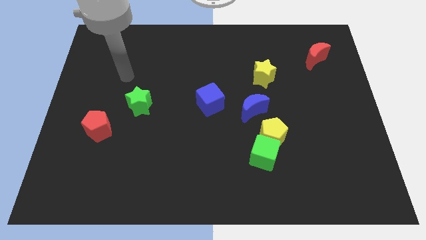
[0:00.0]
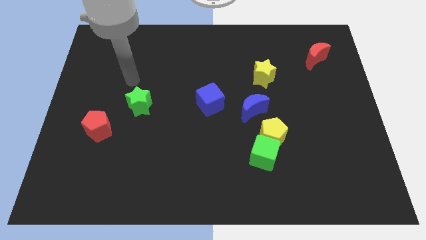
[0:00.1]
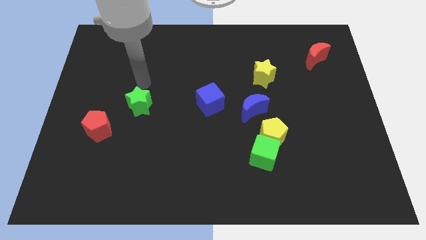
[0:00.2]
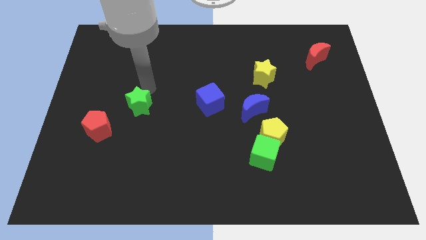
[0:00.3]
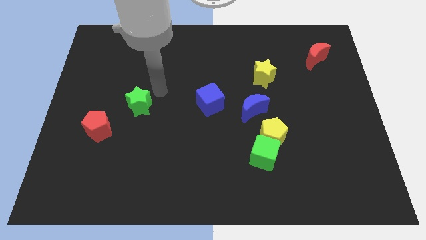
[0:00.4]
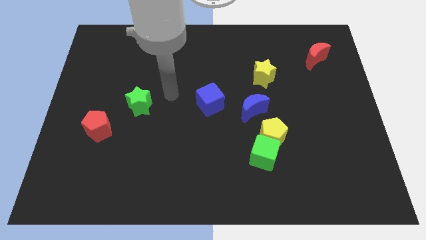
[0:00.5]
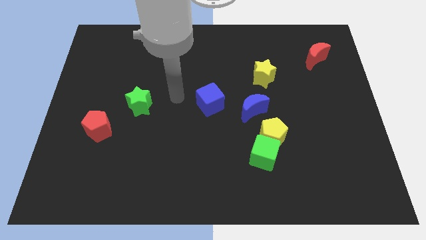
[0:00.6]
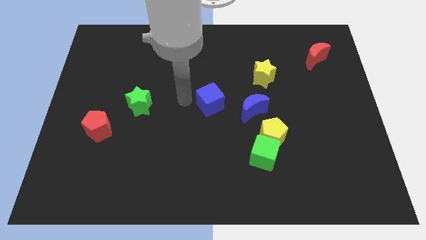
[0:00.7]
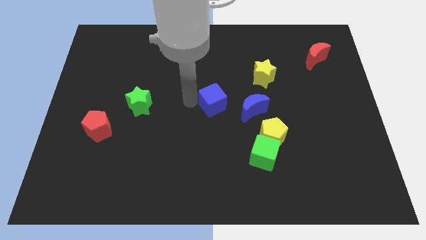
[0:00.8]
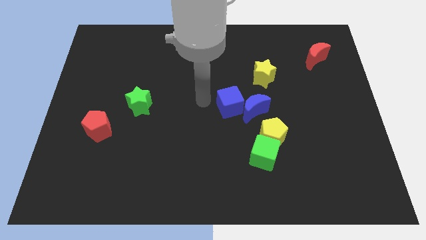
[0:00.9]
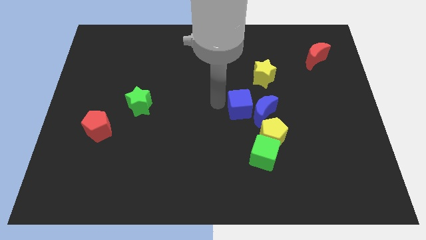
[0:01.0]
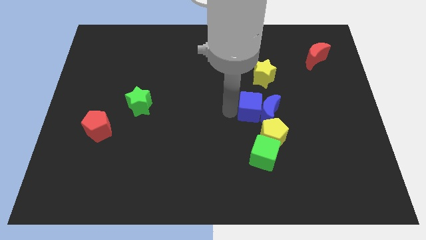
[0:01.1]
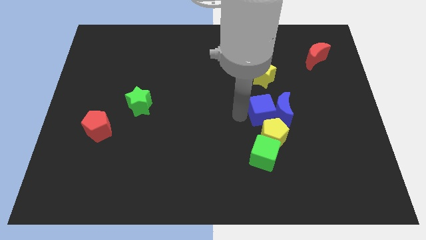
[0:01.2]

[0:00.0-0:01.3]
move the blue moon slightly right

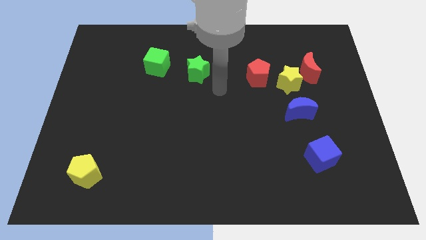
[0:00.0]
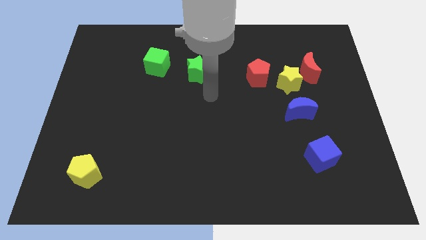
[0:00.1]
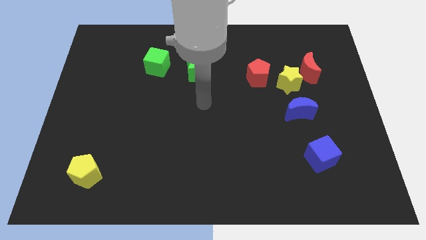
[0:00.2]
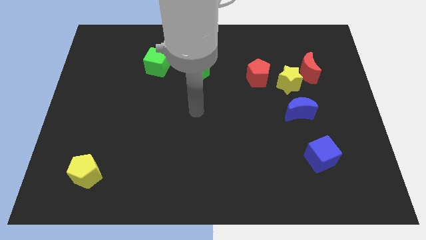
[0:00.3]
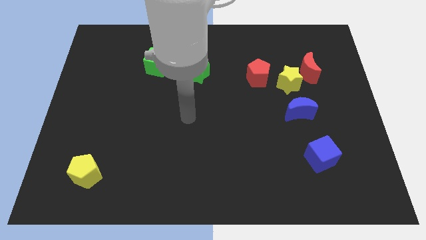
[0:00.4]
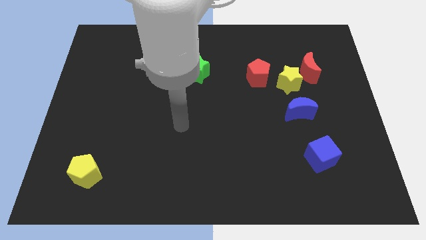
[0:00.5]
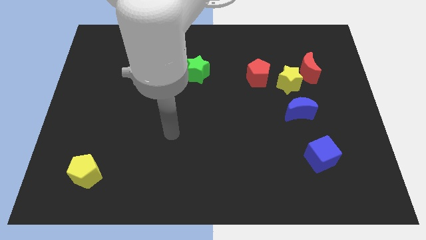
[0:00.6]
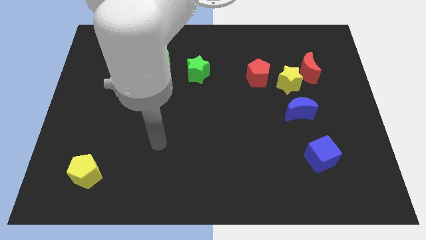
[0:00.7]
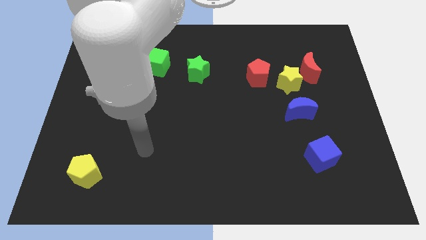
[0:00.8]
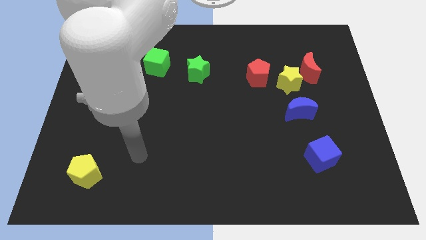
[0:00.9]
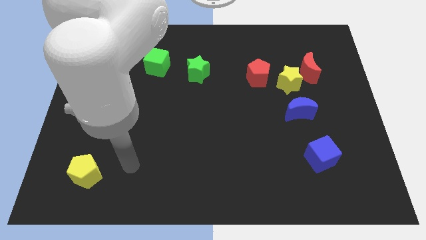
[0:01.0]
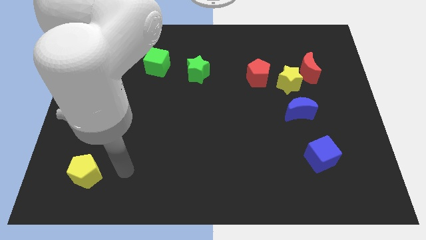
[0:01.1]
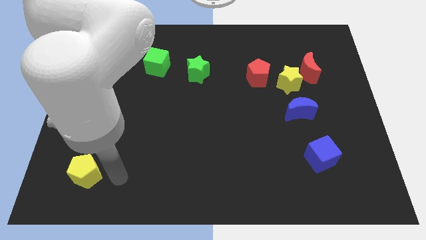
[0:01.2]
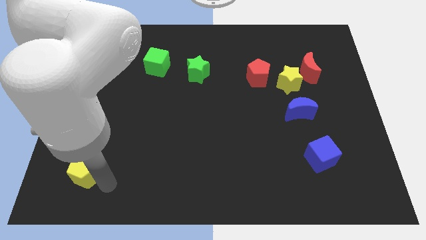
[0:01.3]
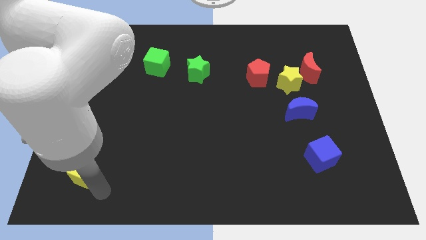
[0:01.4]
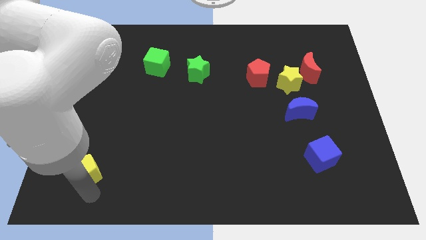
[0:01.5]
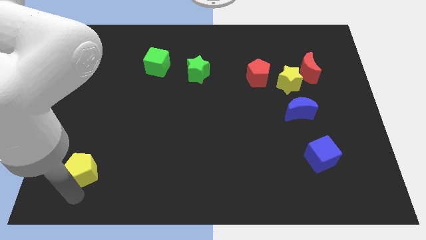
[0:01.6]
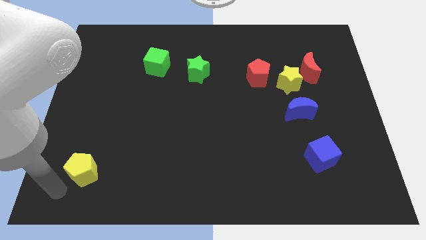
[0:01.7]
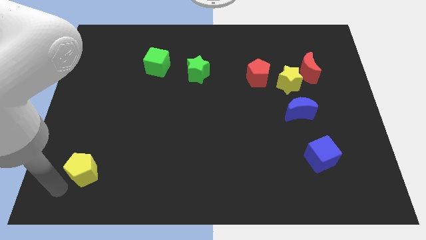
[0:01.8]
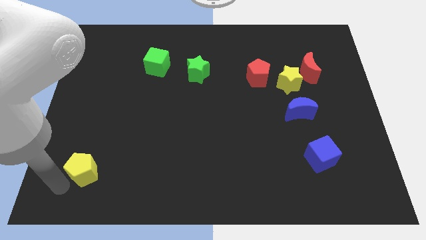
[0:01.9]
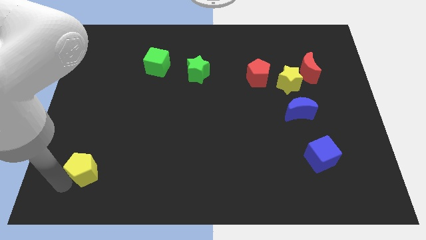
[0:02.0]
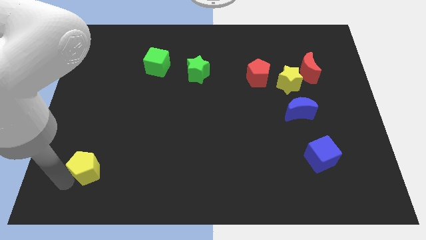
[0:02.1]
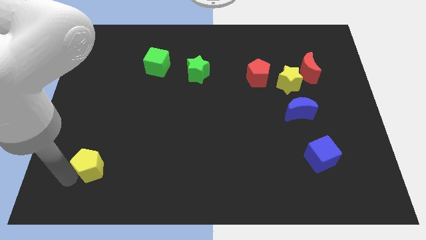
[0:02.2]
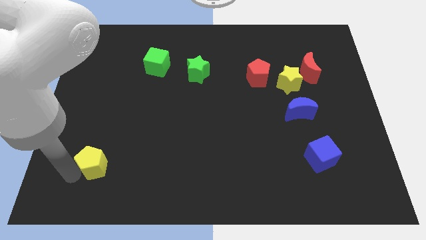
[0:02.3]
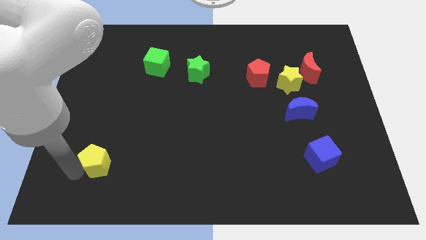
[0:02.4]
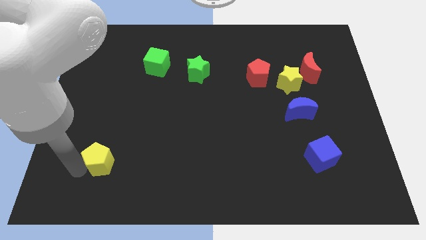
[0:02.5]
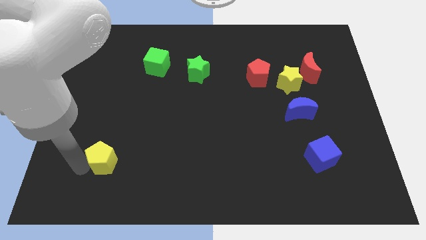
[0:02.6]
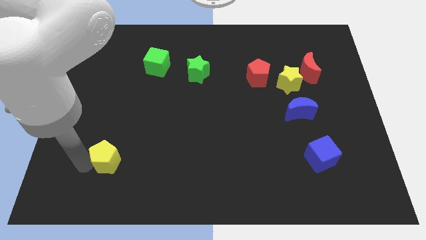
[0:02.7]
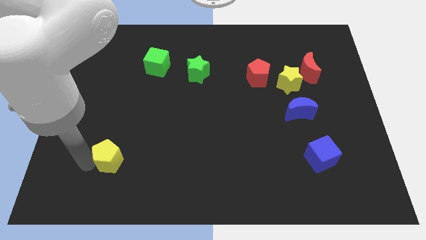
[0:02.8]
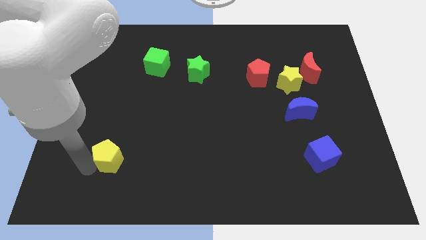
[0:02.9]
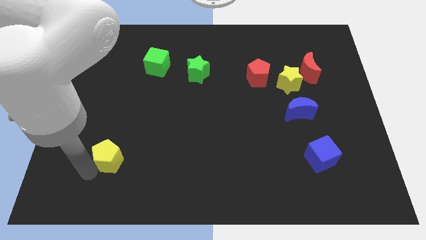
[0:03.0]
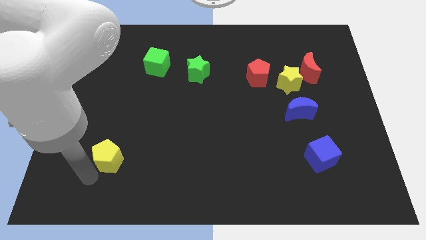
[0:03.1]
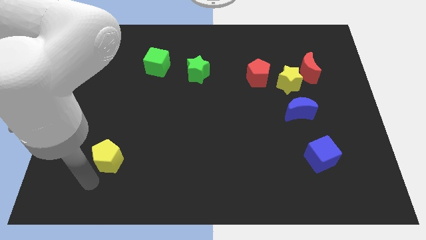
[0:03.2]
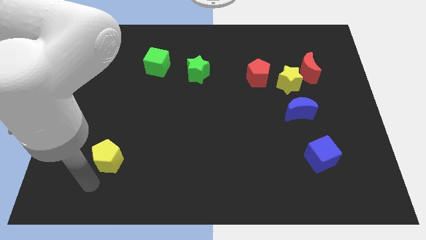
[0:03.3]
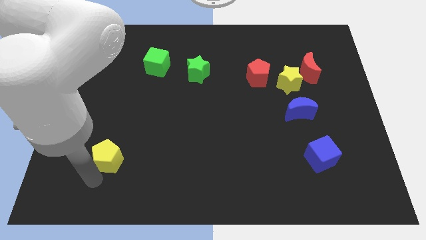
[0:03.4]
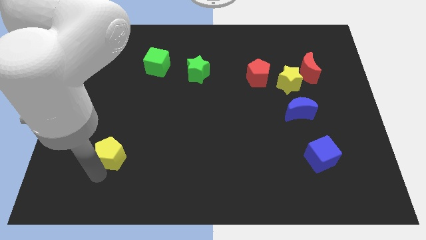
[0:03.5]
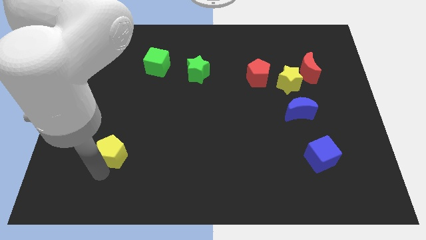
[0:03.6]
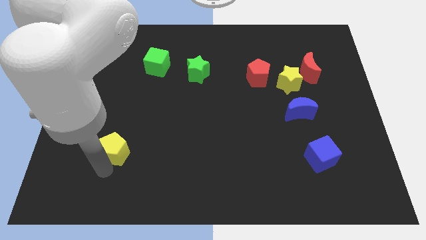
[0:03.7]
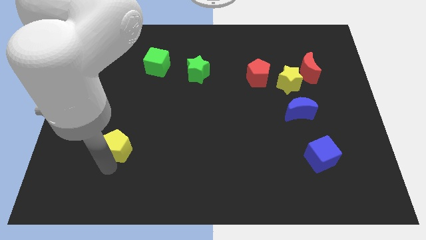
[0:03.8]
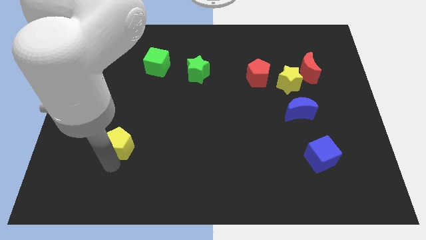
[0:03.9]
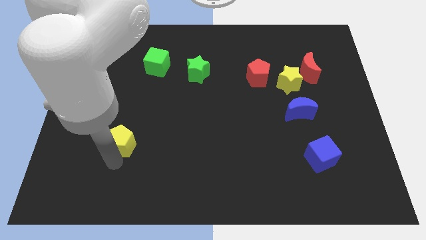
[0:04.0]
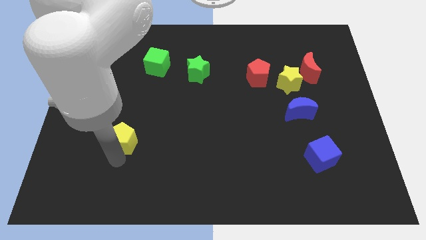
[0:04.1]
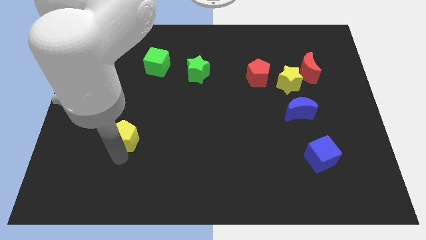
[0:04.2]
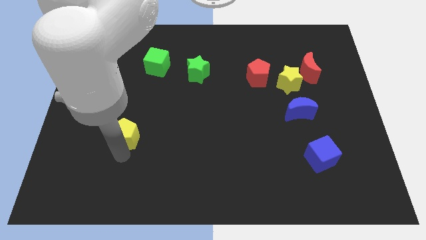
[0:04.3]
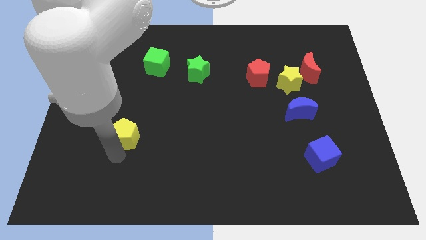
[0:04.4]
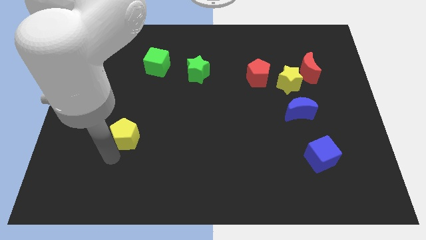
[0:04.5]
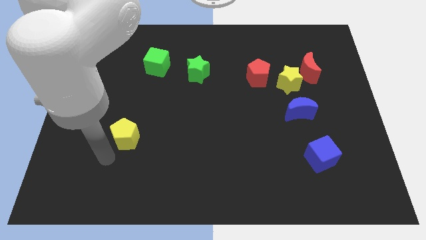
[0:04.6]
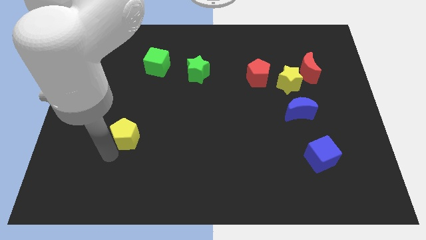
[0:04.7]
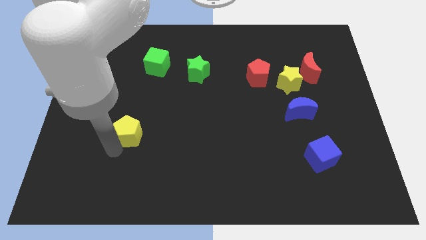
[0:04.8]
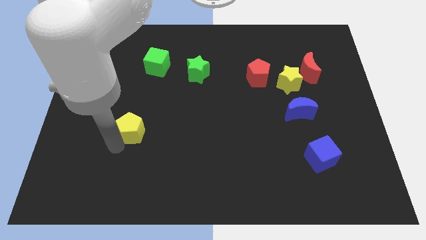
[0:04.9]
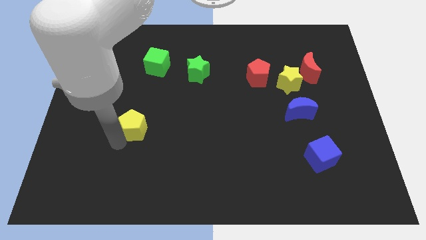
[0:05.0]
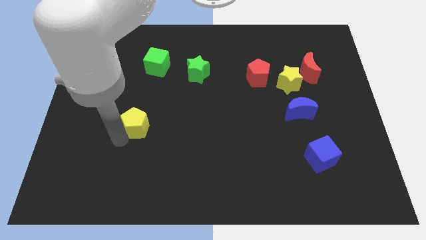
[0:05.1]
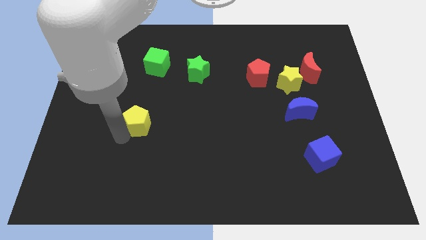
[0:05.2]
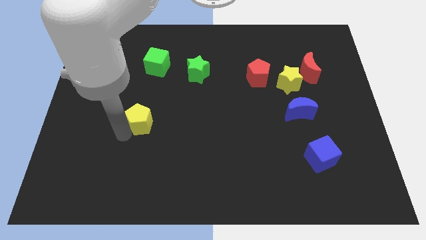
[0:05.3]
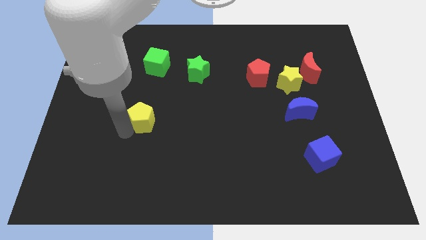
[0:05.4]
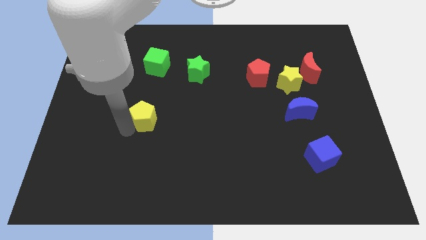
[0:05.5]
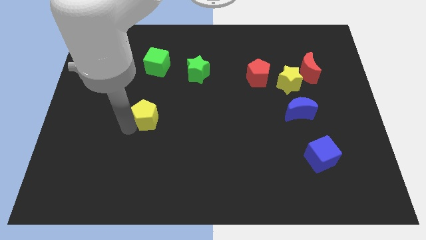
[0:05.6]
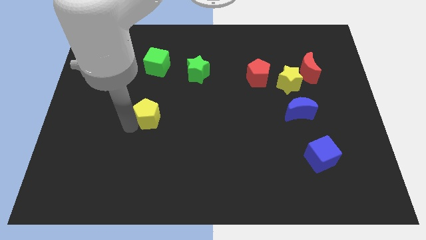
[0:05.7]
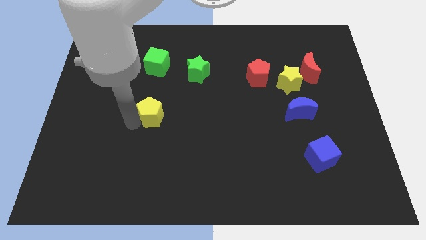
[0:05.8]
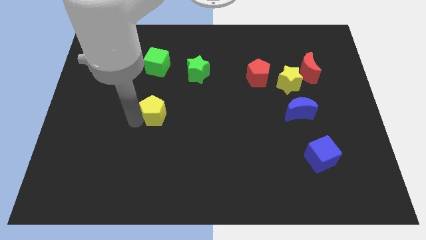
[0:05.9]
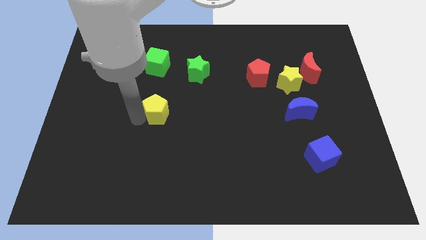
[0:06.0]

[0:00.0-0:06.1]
push the yellow pentagon diagonally up and right

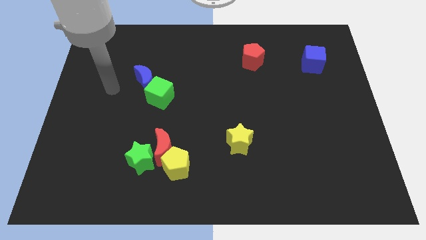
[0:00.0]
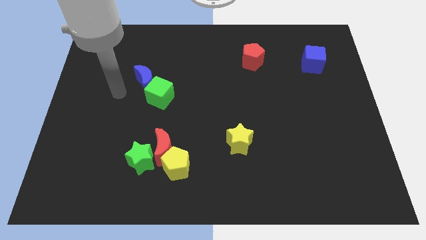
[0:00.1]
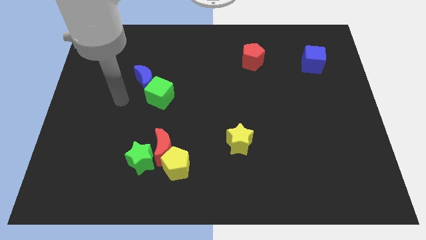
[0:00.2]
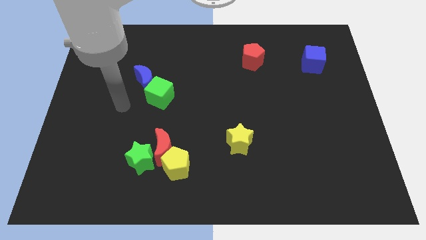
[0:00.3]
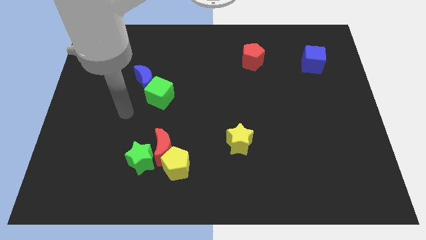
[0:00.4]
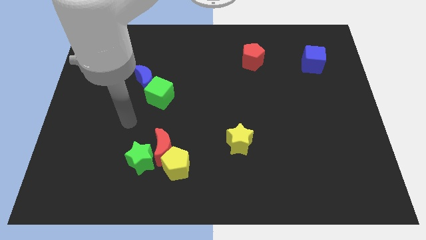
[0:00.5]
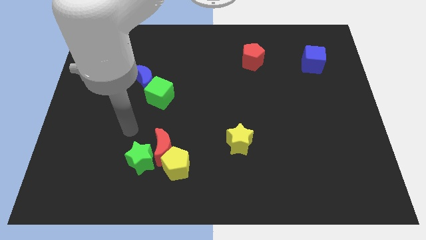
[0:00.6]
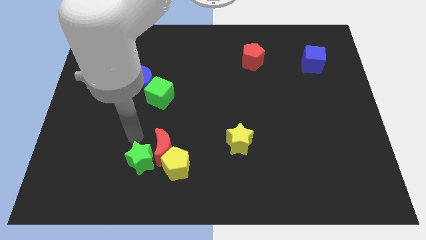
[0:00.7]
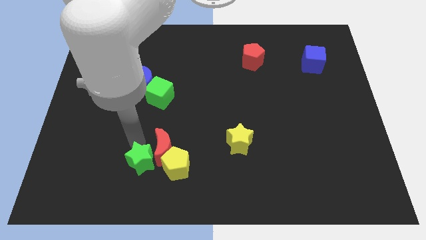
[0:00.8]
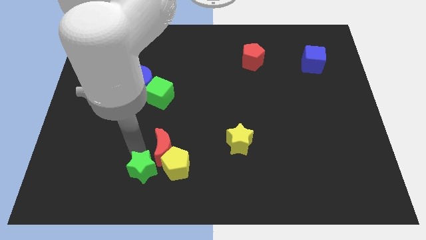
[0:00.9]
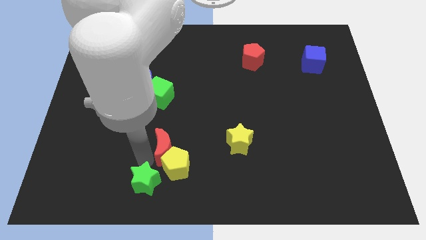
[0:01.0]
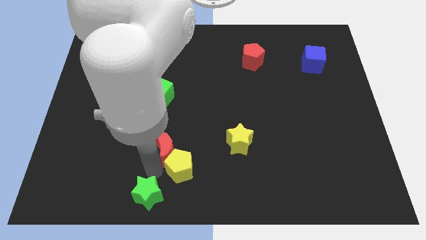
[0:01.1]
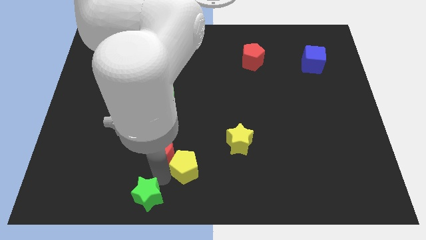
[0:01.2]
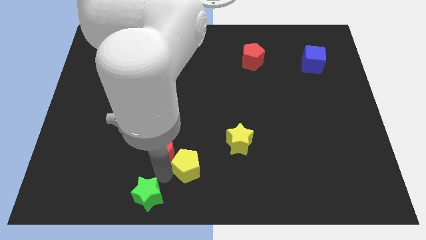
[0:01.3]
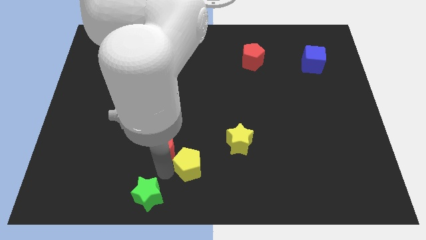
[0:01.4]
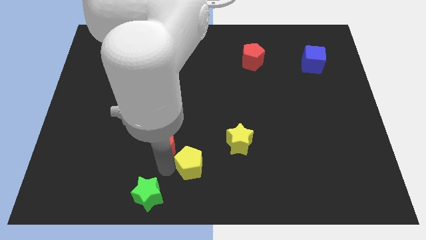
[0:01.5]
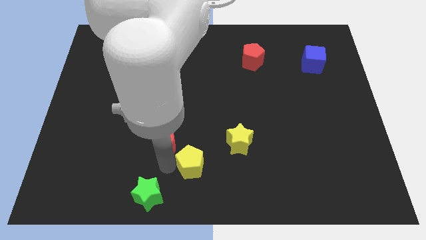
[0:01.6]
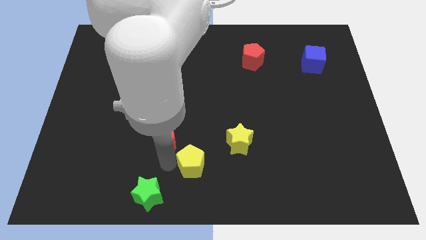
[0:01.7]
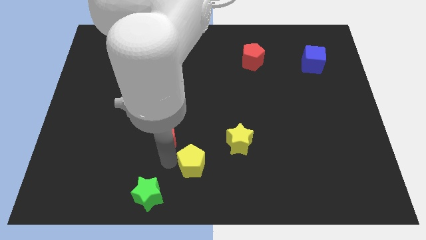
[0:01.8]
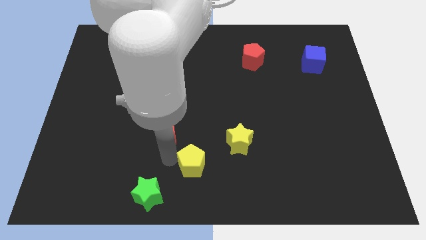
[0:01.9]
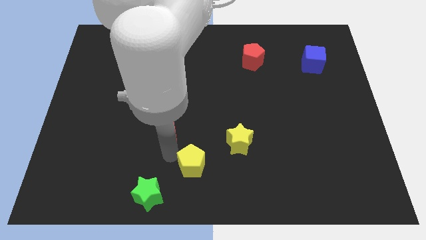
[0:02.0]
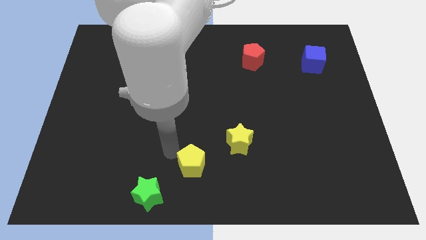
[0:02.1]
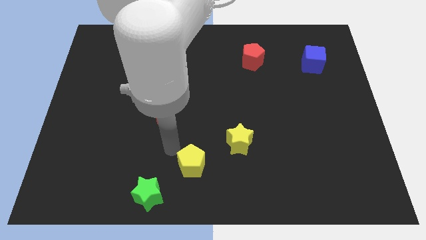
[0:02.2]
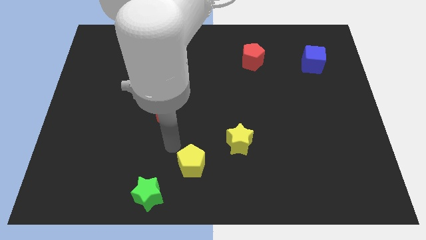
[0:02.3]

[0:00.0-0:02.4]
slightly move the red moon upwards
